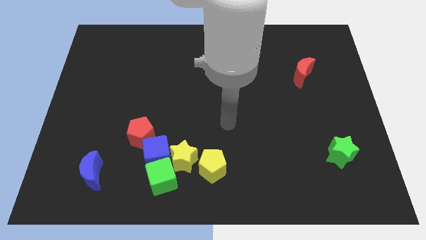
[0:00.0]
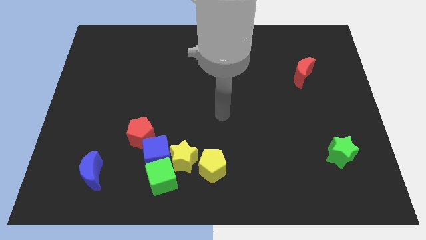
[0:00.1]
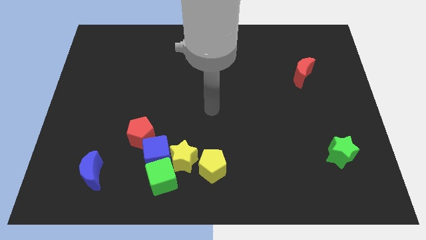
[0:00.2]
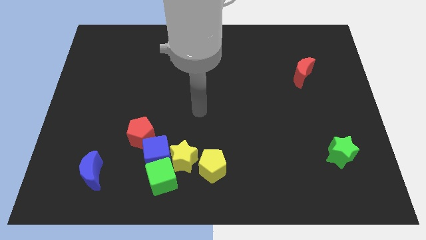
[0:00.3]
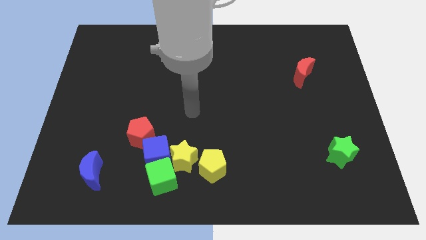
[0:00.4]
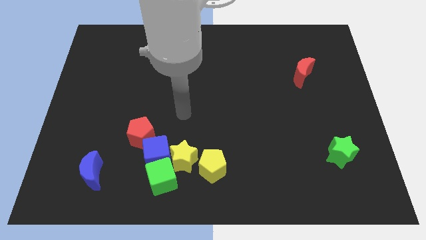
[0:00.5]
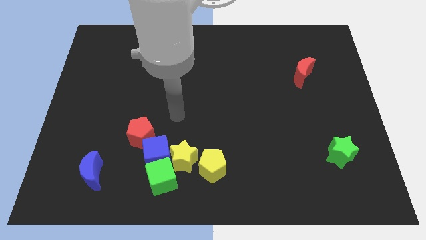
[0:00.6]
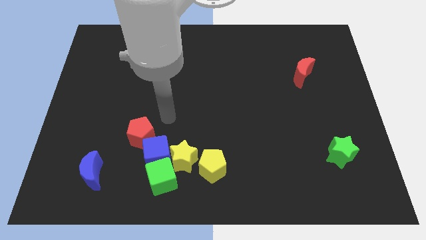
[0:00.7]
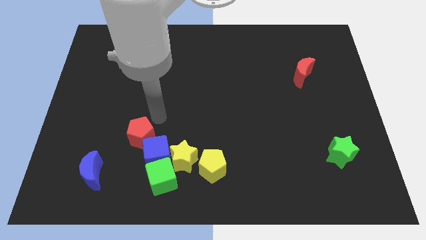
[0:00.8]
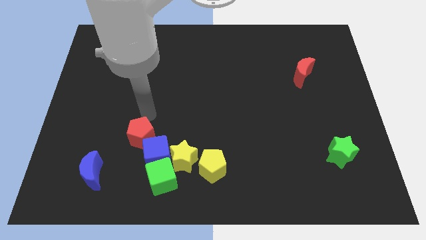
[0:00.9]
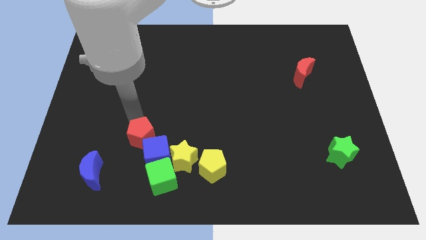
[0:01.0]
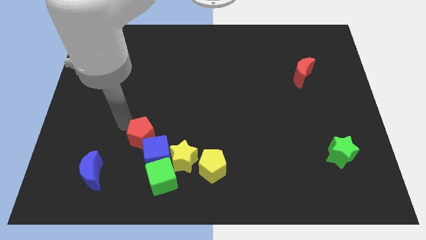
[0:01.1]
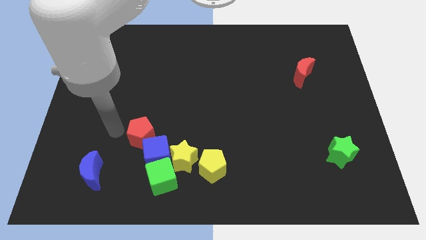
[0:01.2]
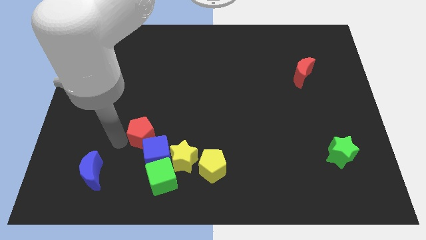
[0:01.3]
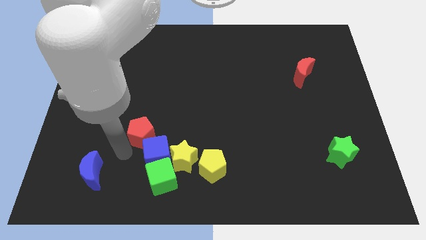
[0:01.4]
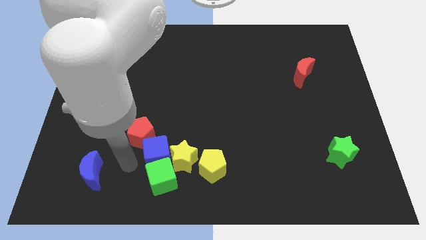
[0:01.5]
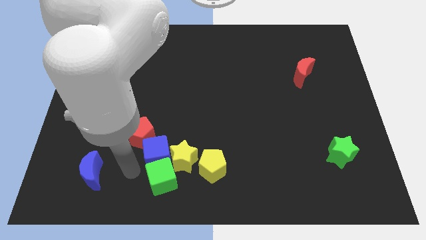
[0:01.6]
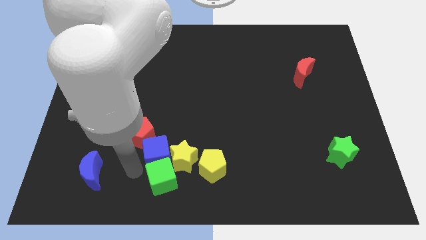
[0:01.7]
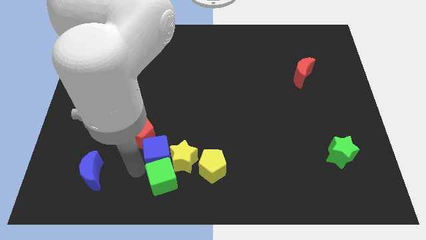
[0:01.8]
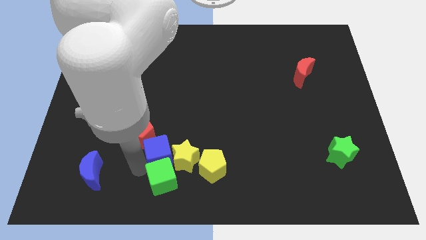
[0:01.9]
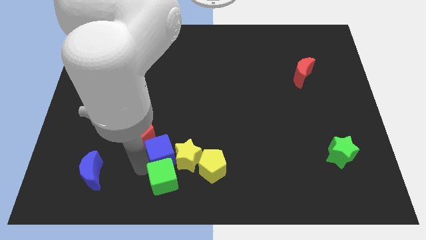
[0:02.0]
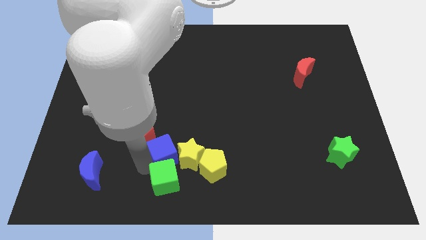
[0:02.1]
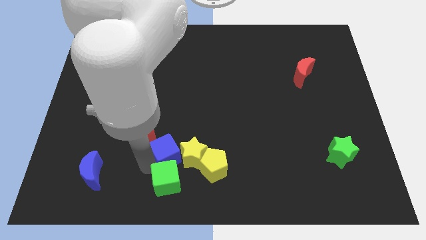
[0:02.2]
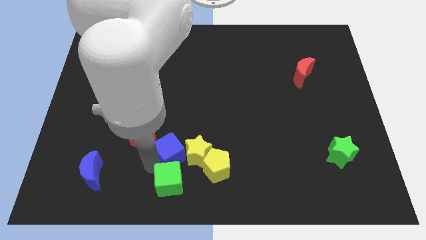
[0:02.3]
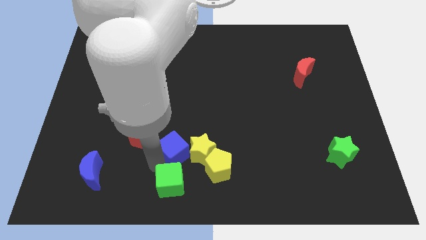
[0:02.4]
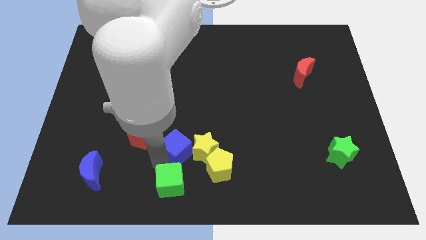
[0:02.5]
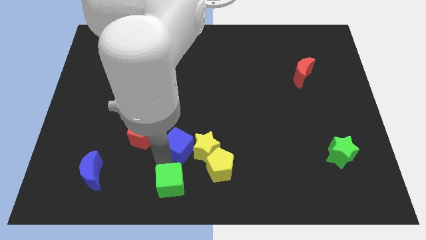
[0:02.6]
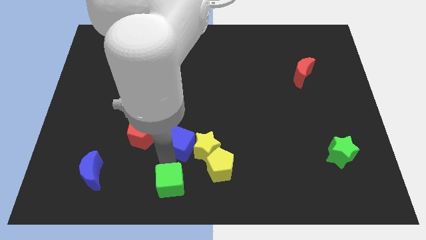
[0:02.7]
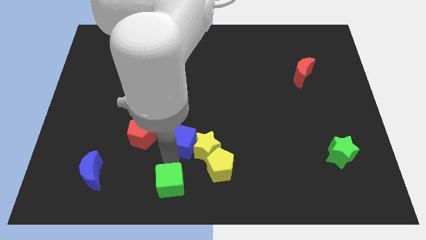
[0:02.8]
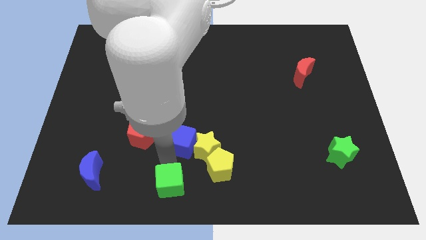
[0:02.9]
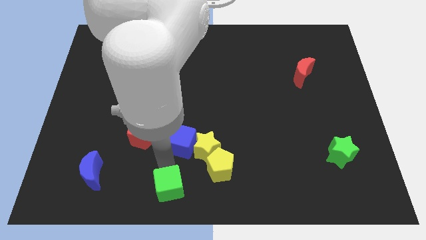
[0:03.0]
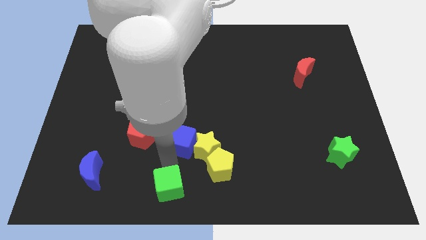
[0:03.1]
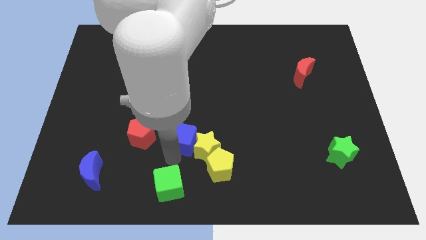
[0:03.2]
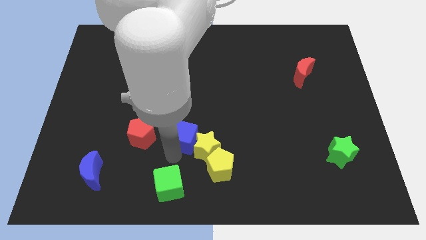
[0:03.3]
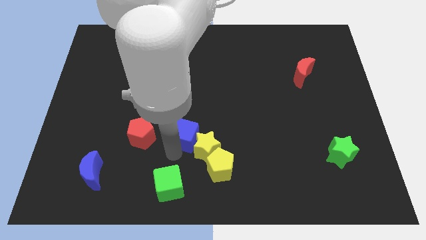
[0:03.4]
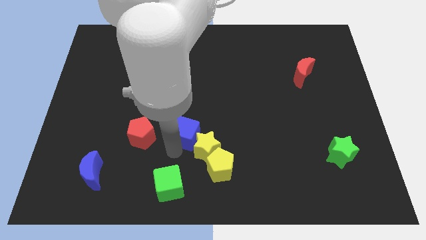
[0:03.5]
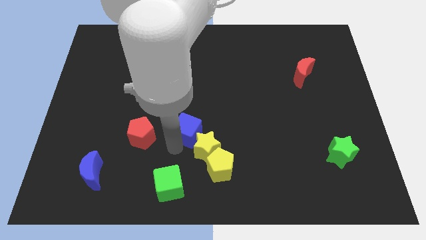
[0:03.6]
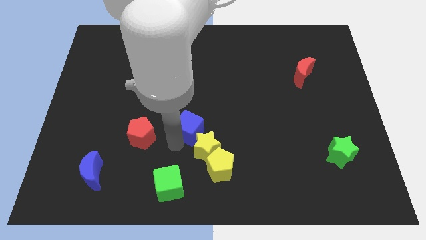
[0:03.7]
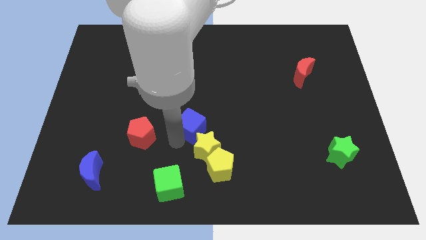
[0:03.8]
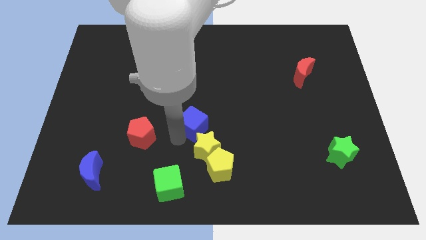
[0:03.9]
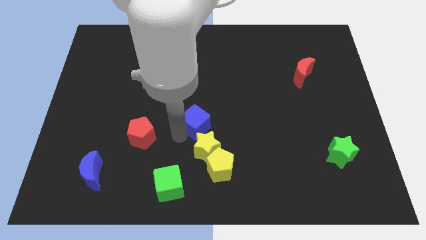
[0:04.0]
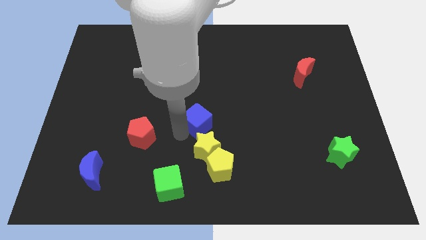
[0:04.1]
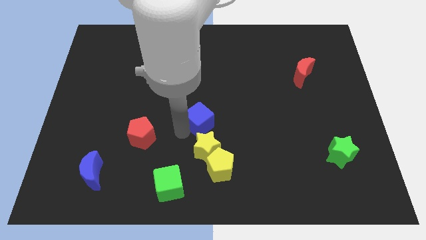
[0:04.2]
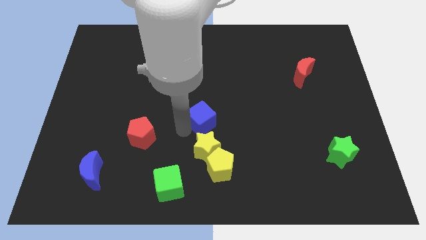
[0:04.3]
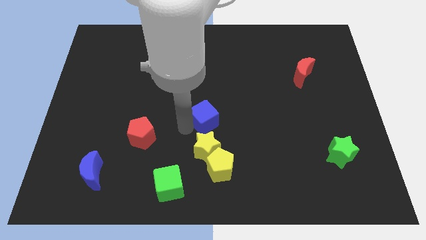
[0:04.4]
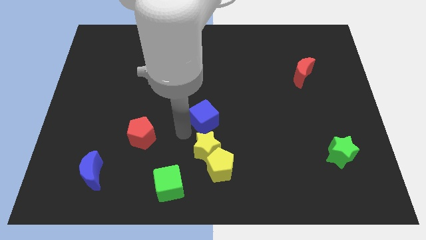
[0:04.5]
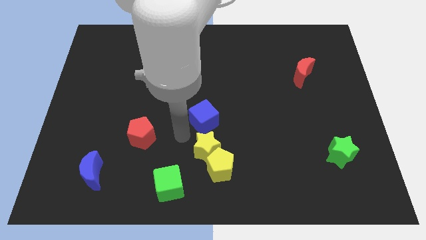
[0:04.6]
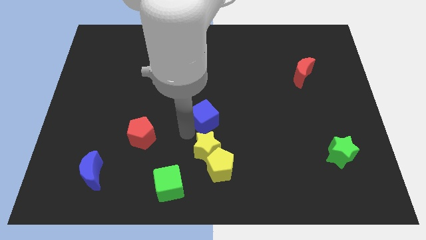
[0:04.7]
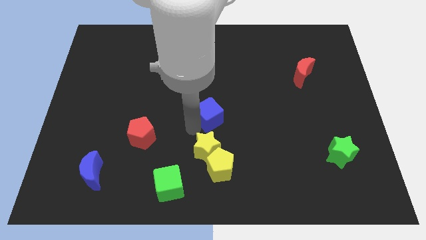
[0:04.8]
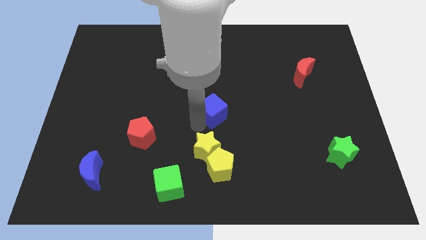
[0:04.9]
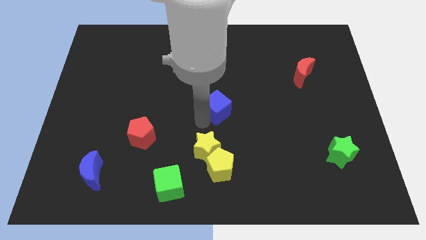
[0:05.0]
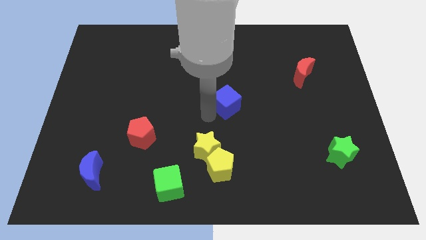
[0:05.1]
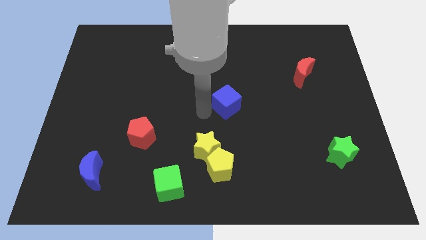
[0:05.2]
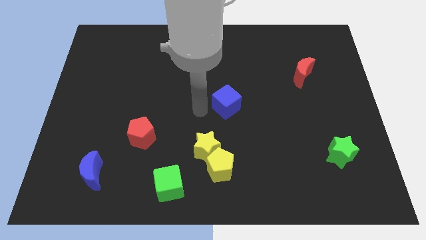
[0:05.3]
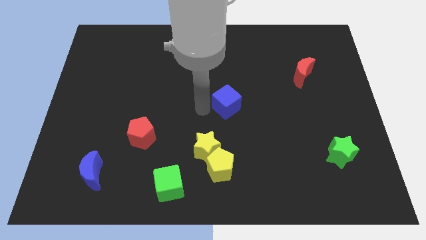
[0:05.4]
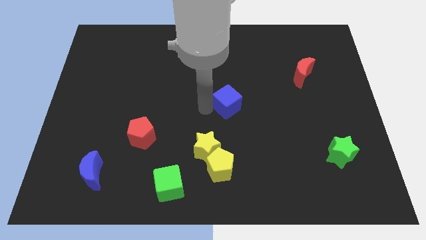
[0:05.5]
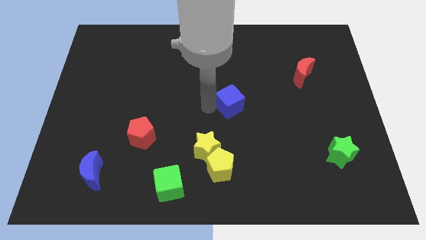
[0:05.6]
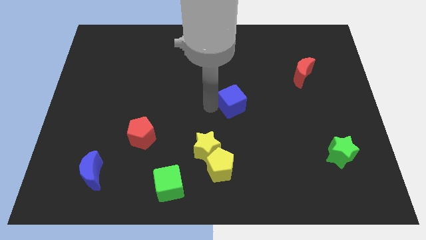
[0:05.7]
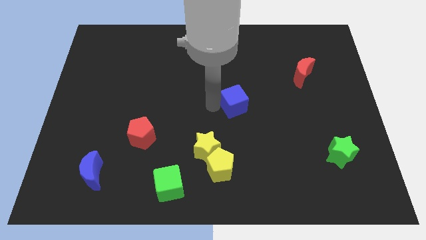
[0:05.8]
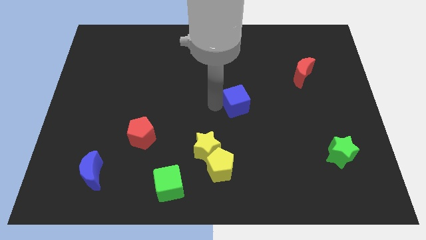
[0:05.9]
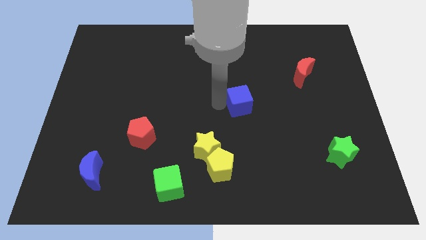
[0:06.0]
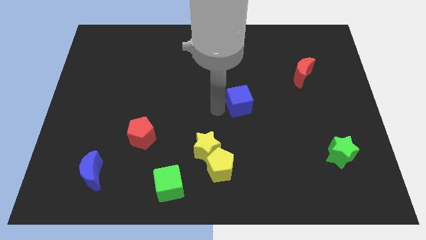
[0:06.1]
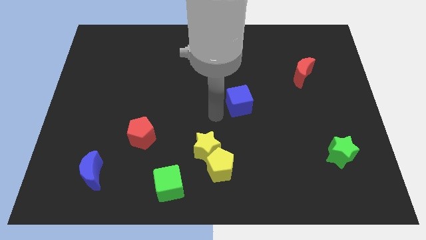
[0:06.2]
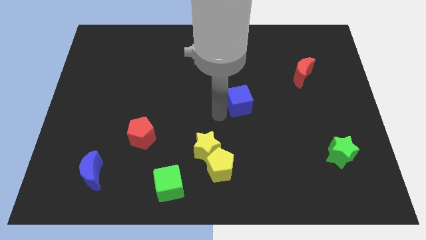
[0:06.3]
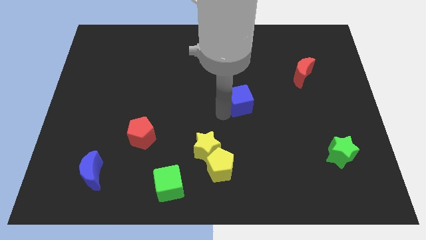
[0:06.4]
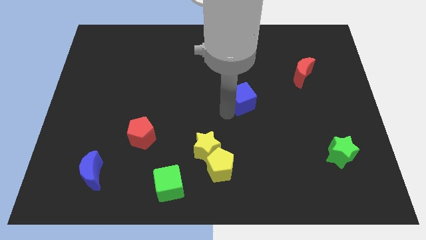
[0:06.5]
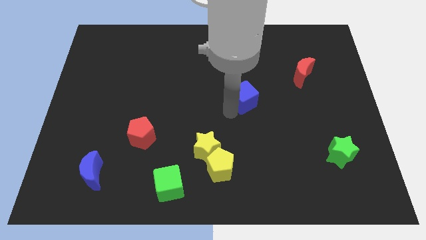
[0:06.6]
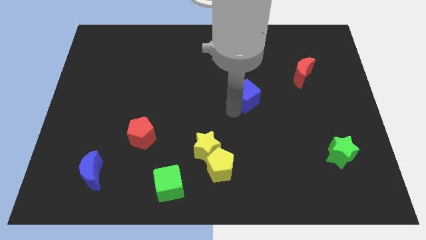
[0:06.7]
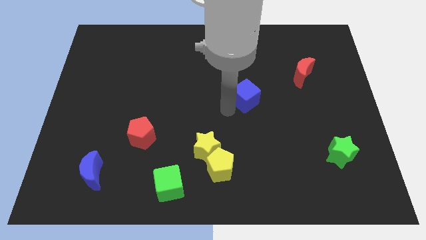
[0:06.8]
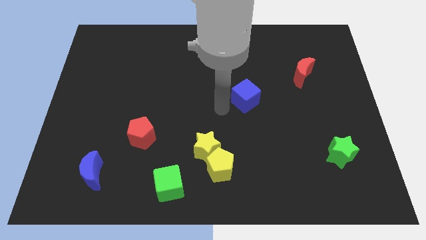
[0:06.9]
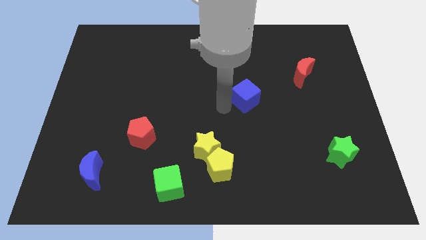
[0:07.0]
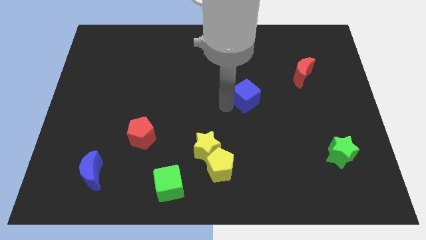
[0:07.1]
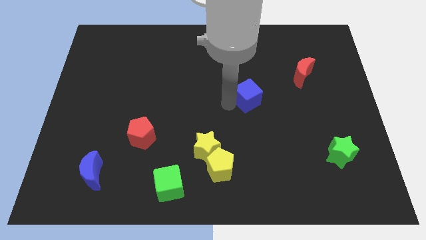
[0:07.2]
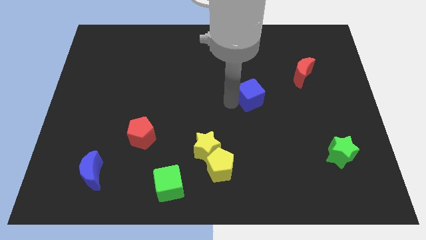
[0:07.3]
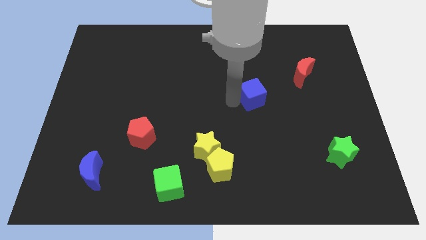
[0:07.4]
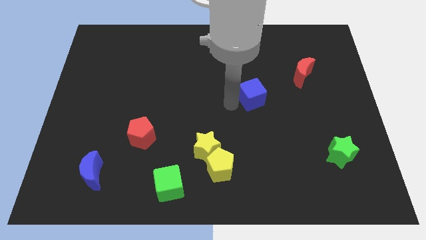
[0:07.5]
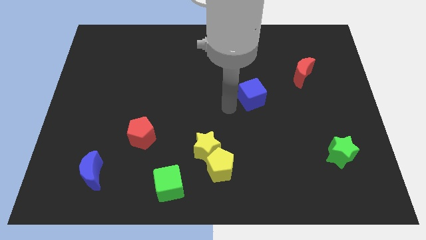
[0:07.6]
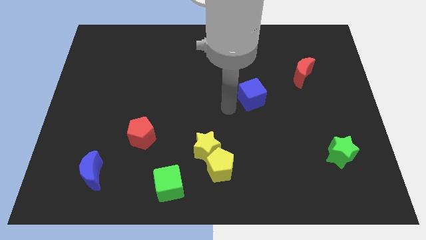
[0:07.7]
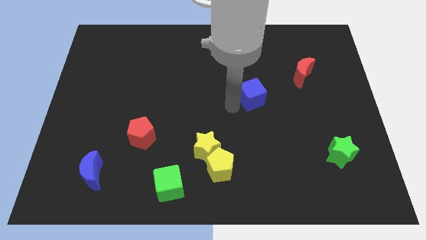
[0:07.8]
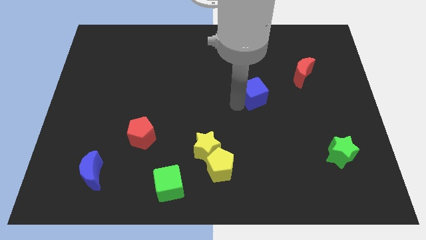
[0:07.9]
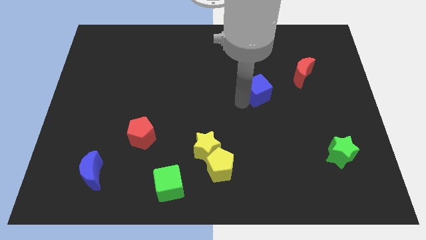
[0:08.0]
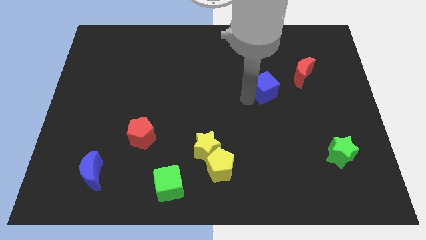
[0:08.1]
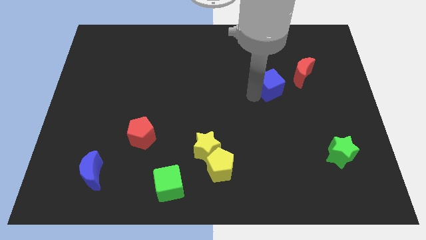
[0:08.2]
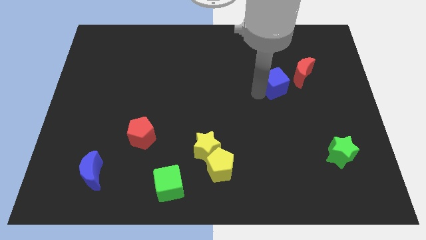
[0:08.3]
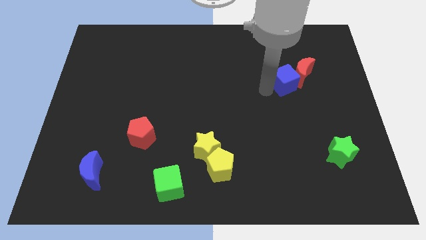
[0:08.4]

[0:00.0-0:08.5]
push the blue cube towards the red moon
